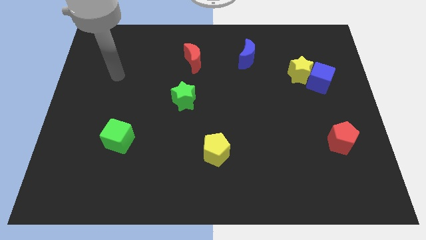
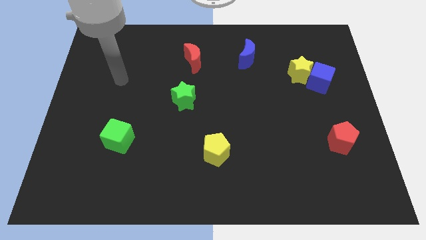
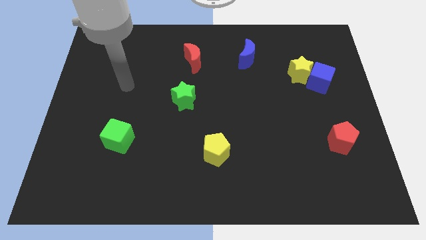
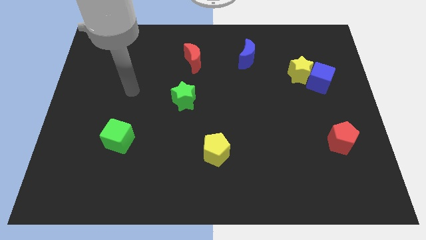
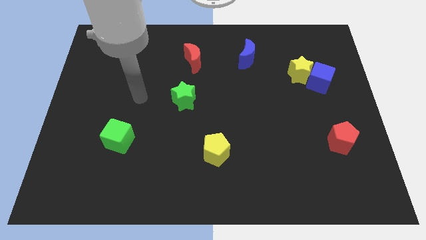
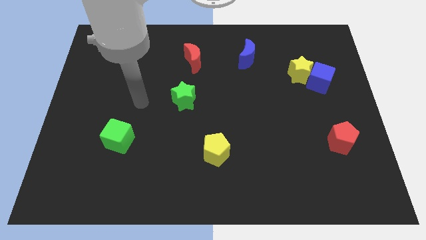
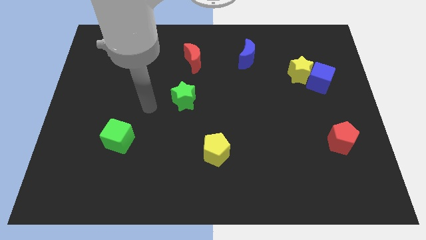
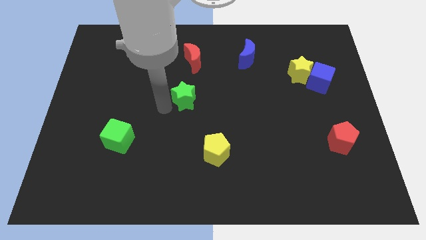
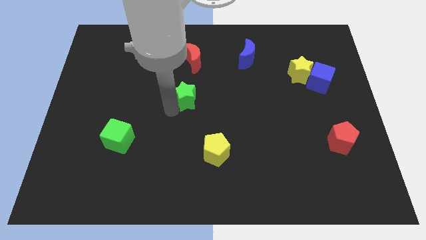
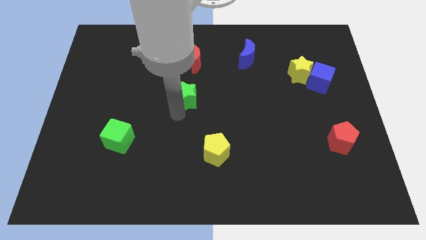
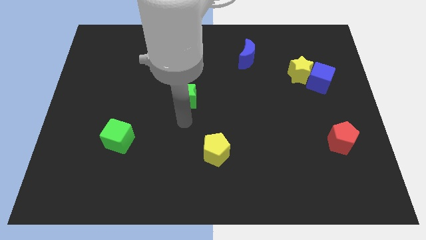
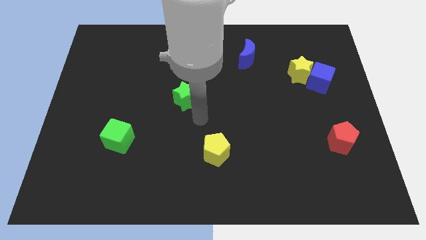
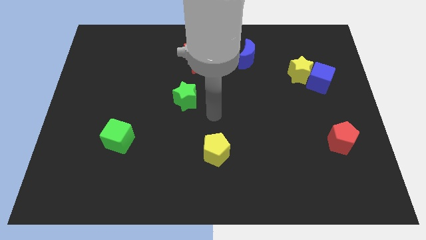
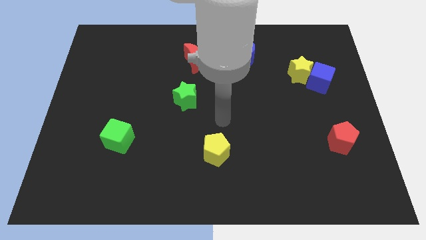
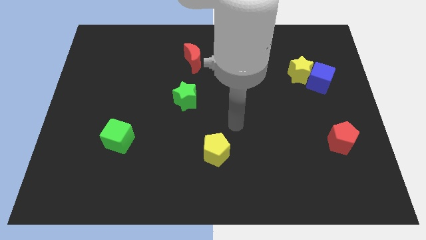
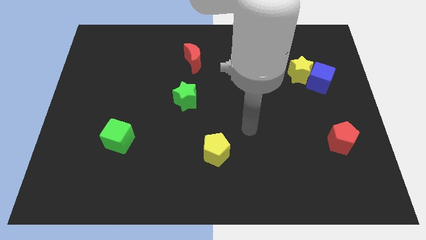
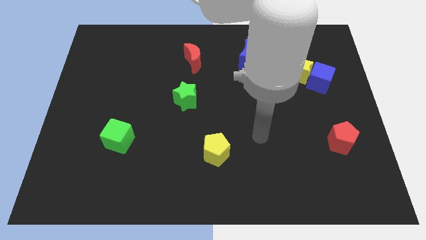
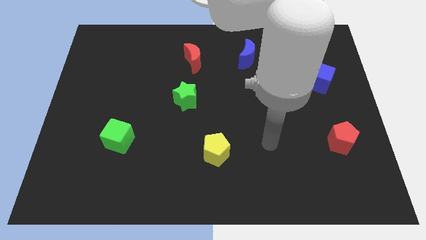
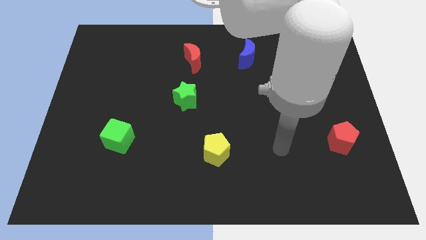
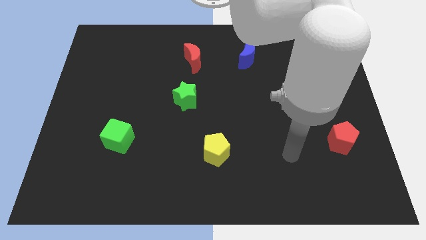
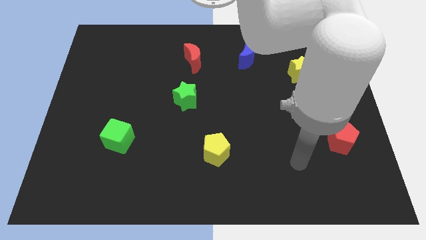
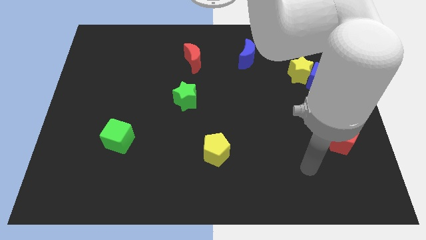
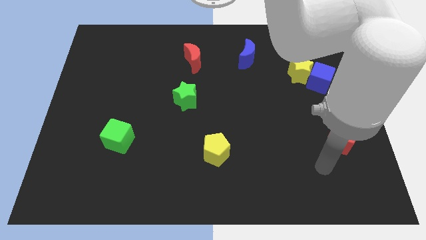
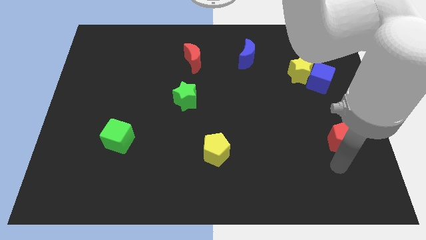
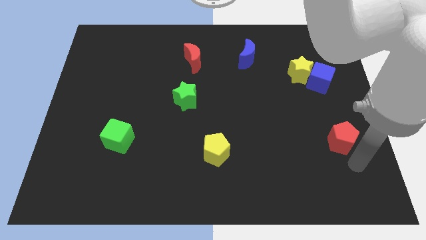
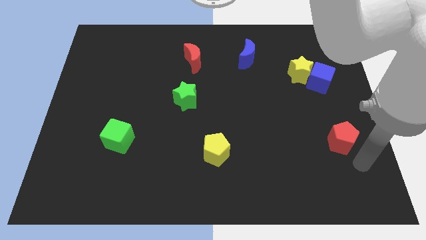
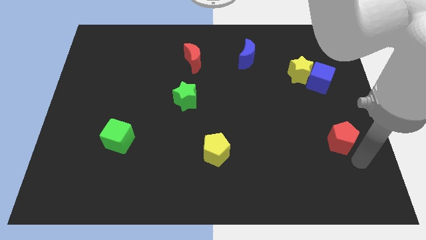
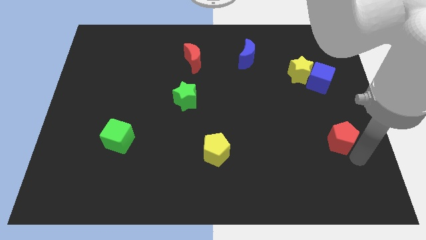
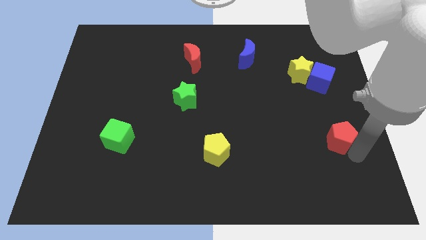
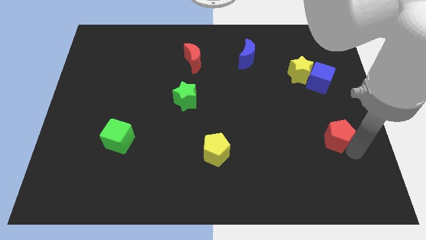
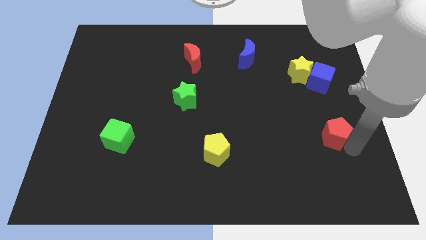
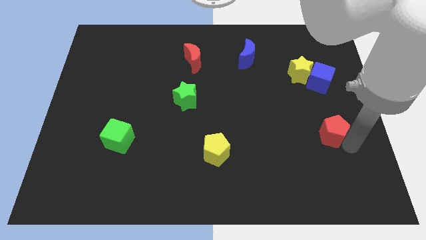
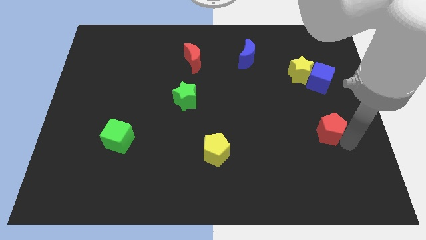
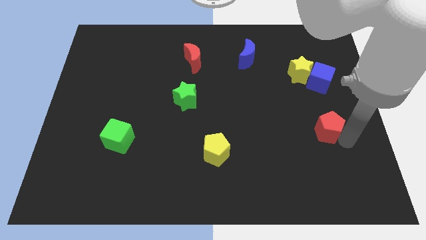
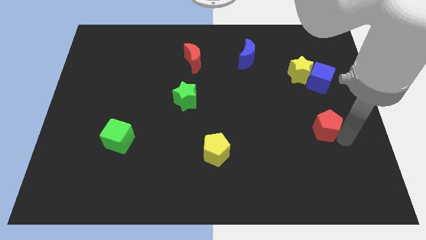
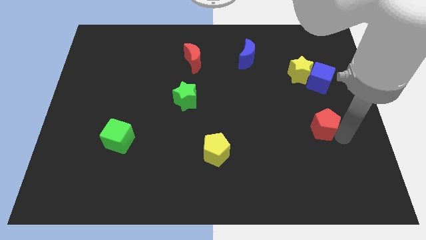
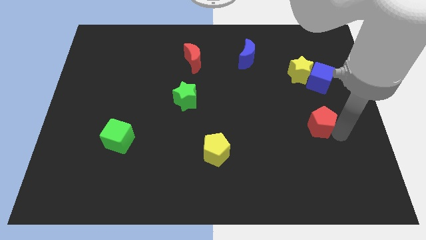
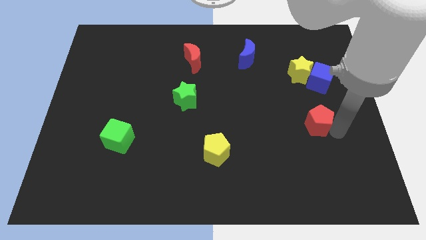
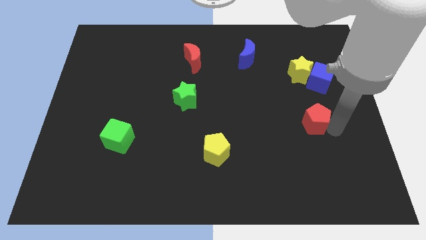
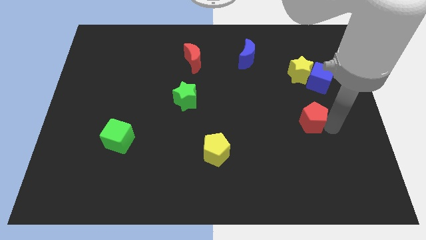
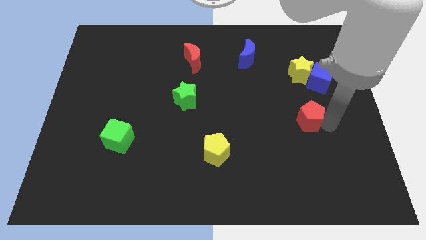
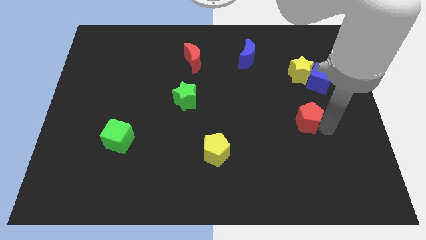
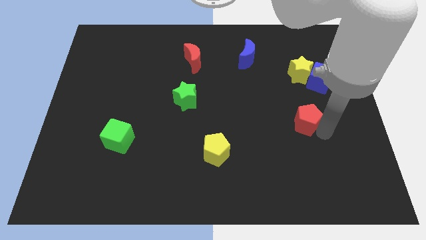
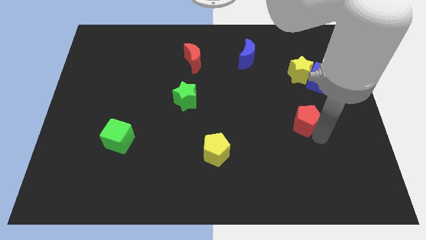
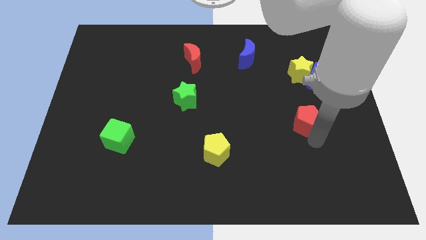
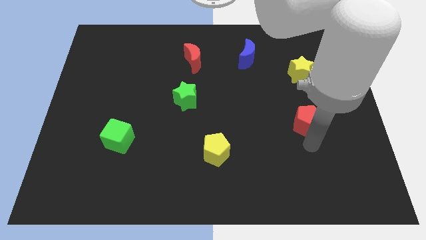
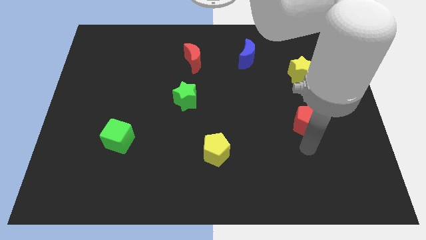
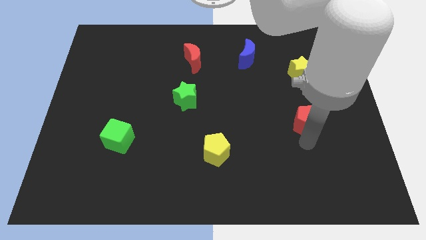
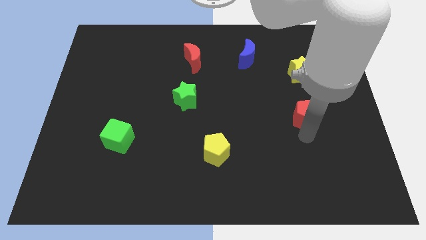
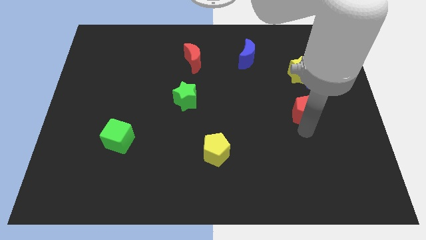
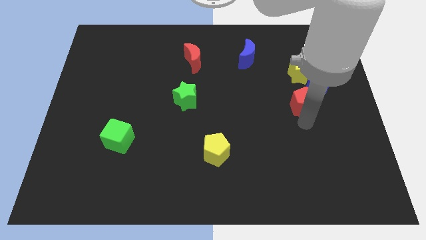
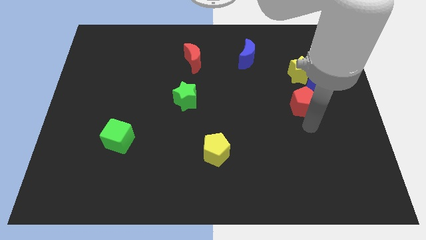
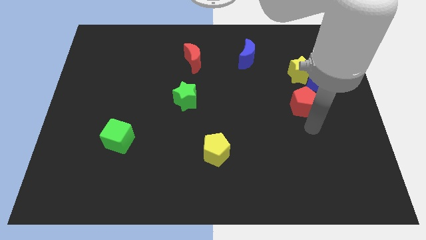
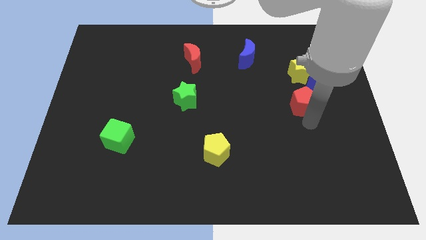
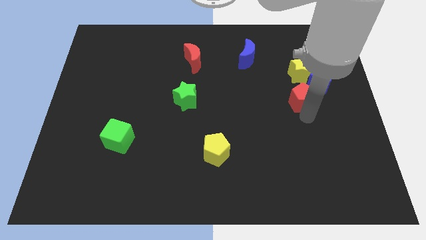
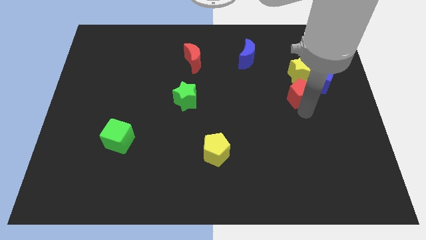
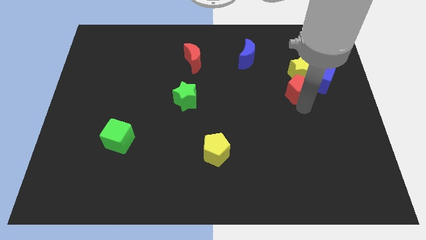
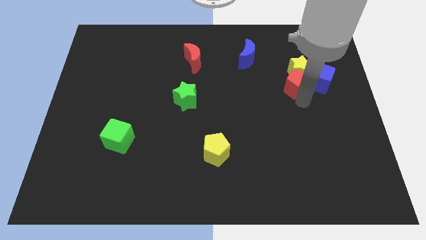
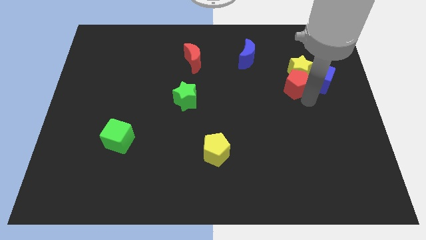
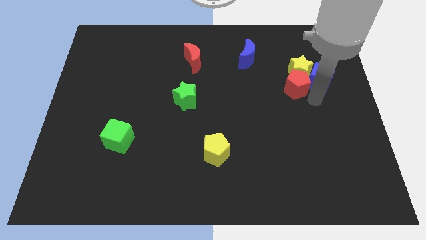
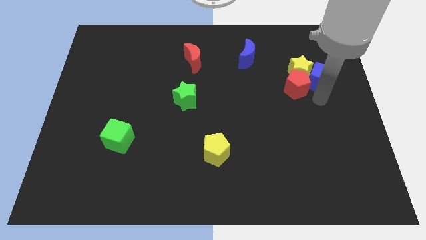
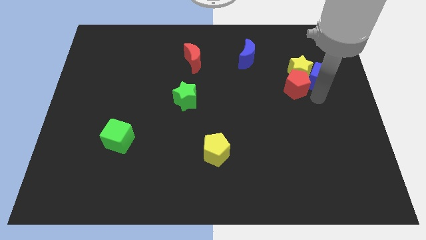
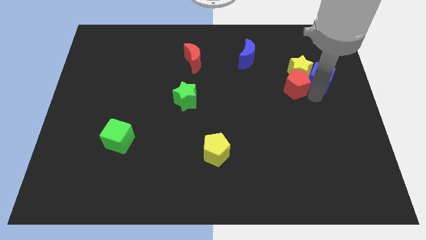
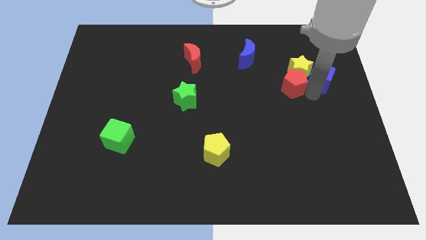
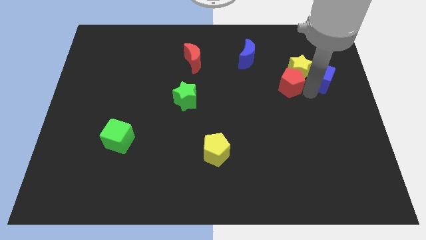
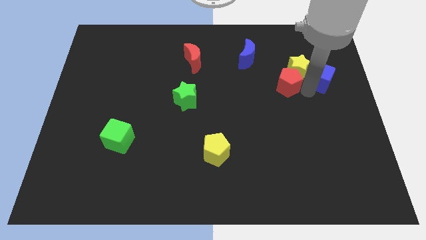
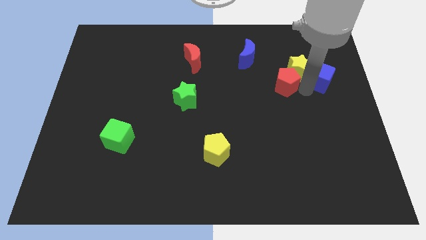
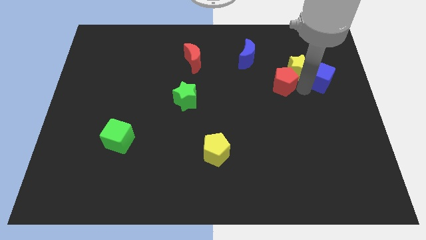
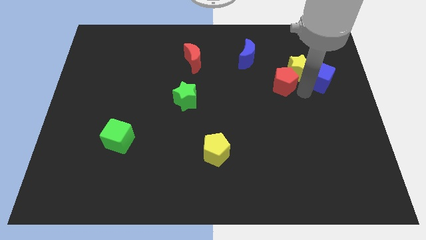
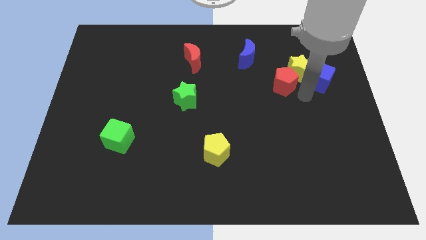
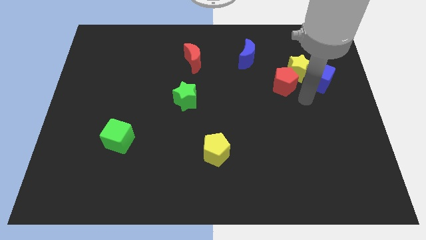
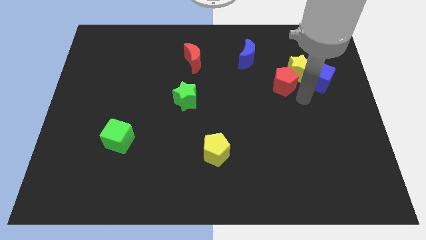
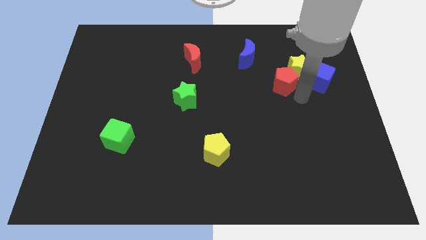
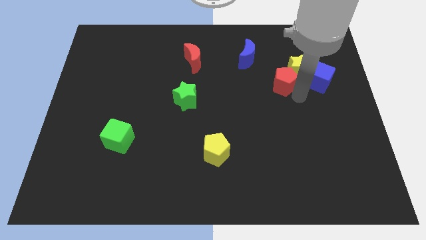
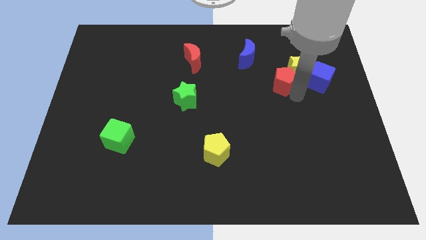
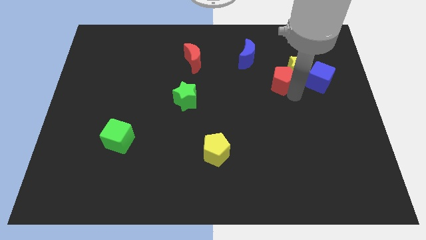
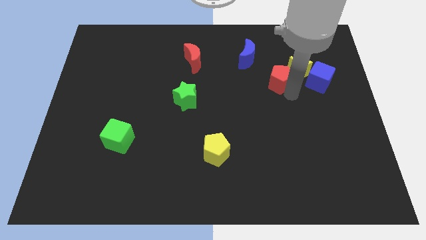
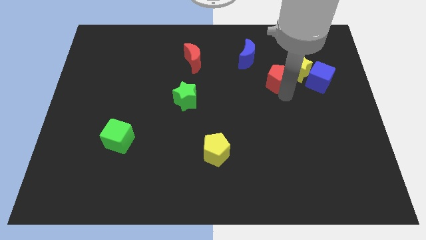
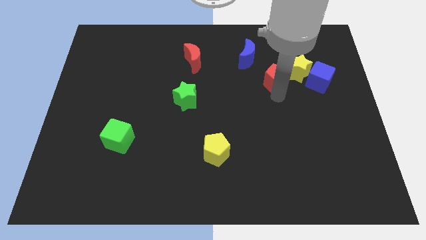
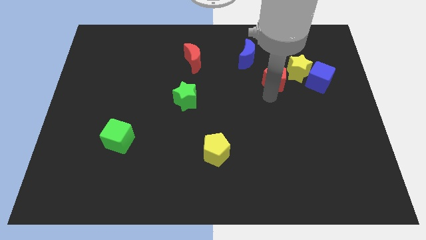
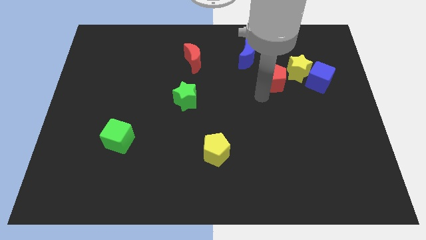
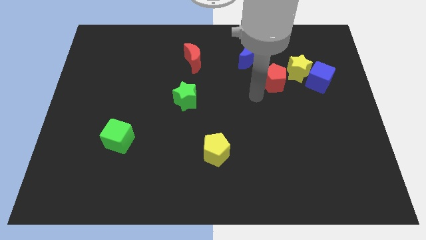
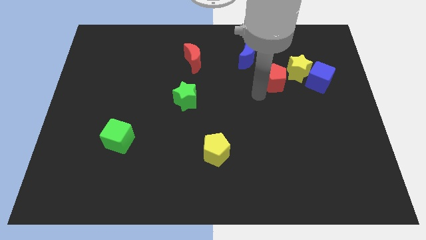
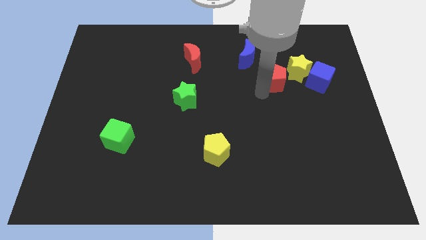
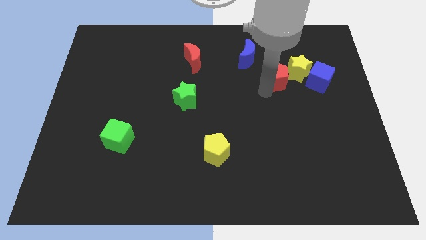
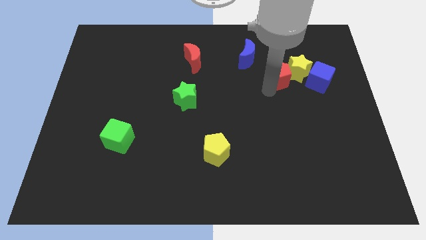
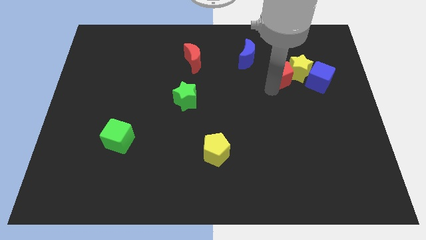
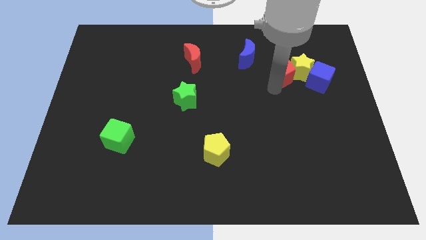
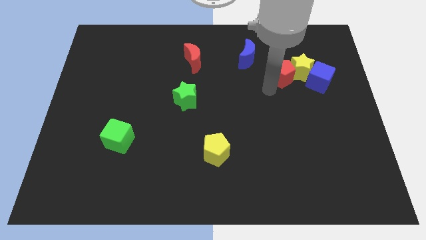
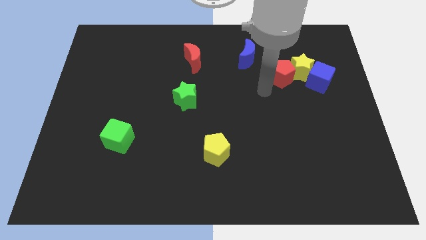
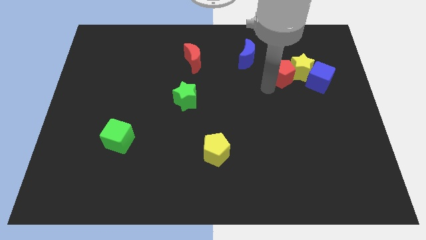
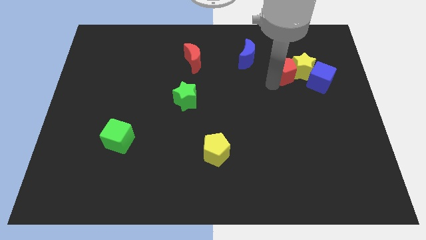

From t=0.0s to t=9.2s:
push the red pentagon to the top left side of the blue cube
